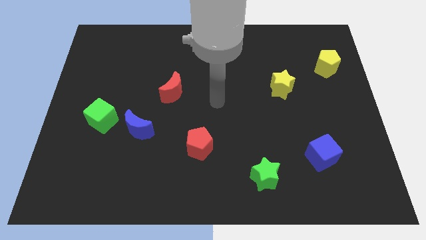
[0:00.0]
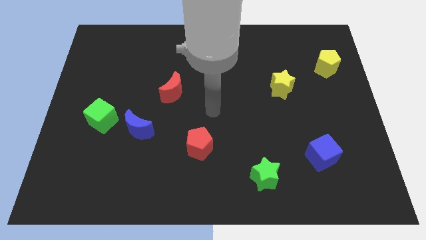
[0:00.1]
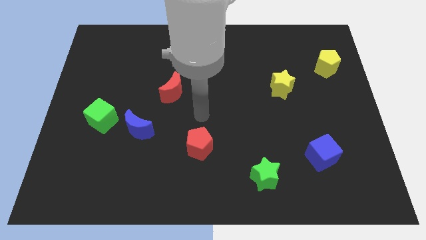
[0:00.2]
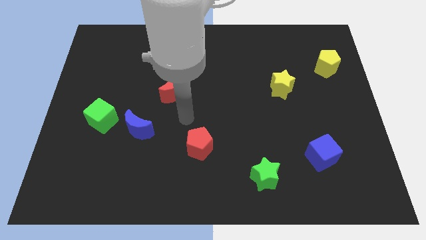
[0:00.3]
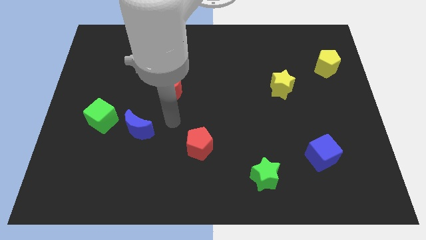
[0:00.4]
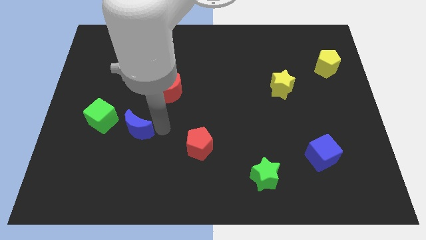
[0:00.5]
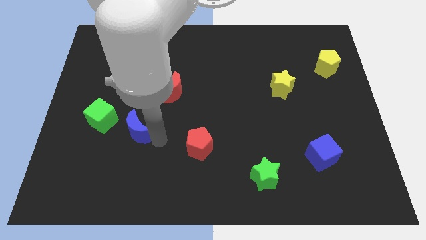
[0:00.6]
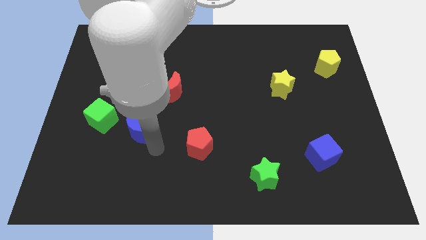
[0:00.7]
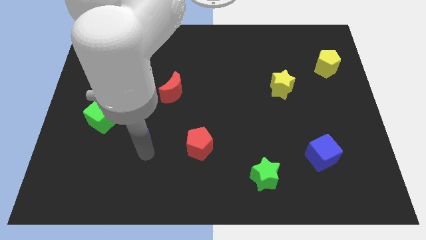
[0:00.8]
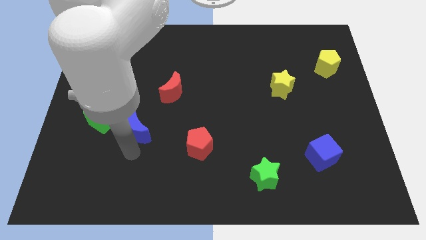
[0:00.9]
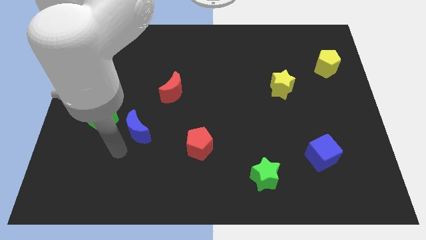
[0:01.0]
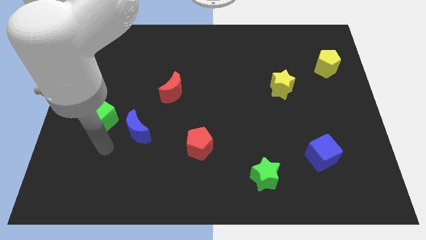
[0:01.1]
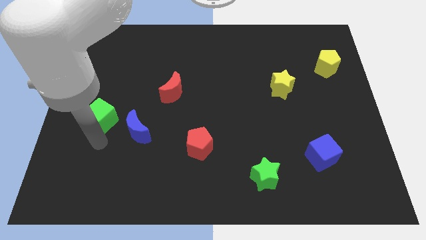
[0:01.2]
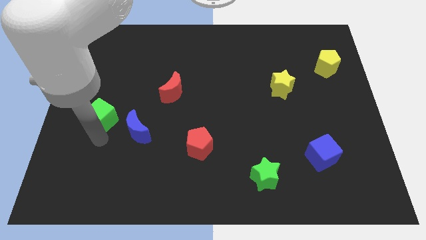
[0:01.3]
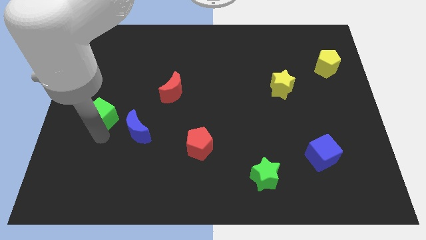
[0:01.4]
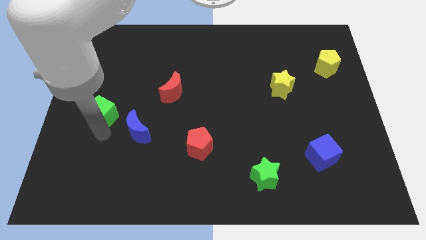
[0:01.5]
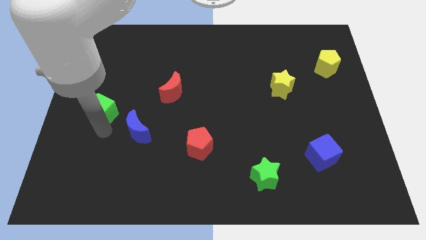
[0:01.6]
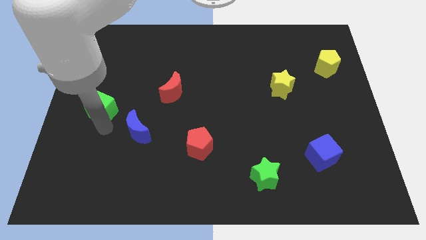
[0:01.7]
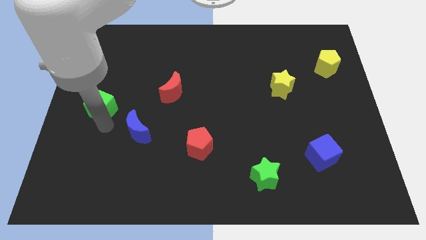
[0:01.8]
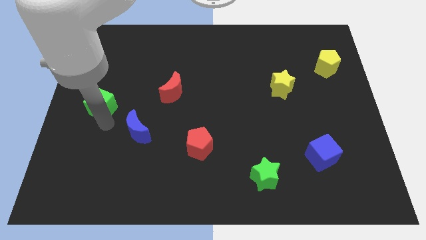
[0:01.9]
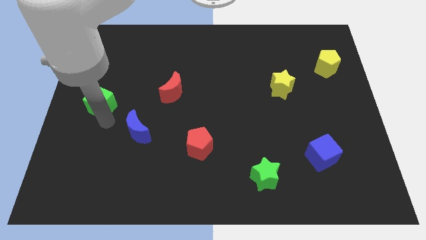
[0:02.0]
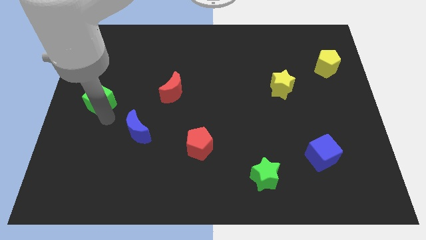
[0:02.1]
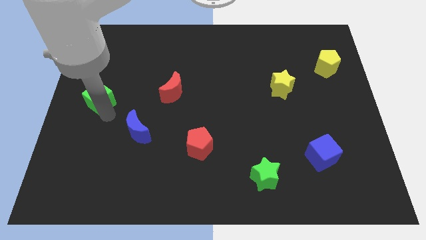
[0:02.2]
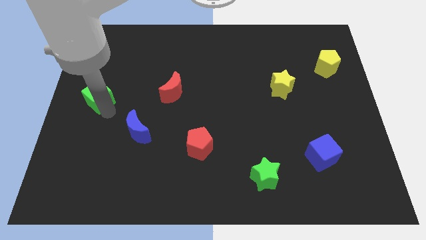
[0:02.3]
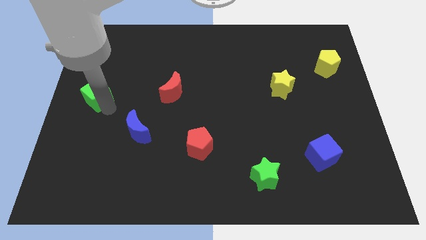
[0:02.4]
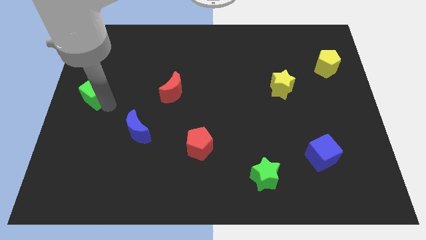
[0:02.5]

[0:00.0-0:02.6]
slightly slide the green cube upwards

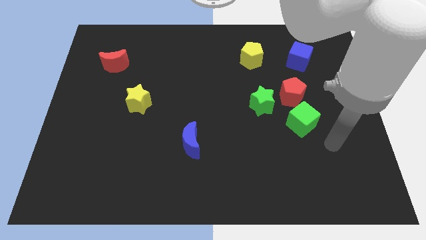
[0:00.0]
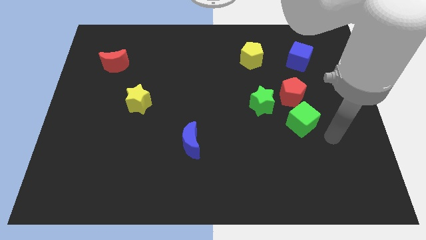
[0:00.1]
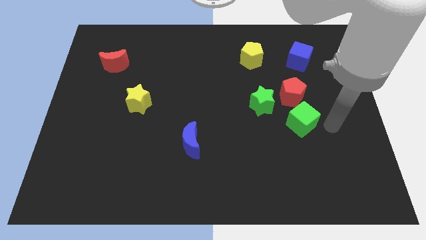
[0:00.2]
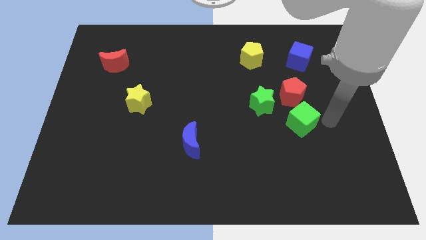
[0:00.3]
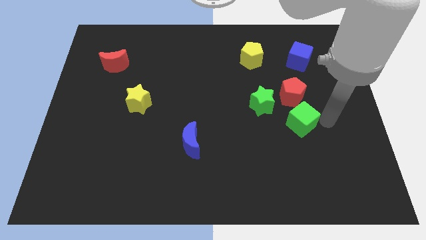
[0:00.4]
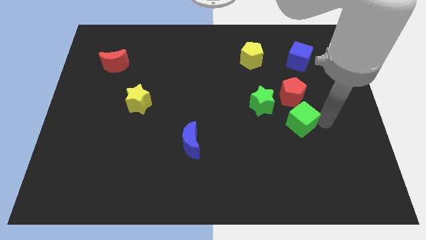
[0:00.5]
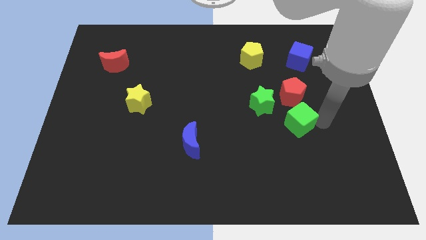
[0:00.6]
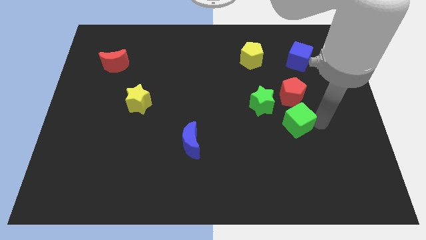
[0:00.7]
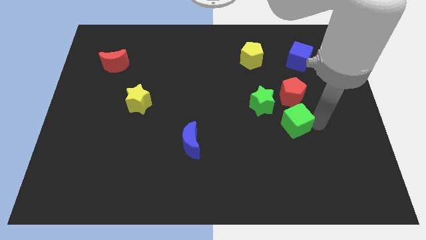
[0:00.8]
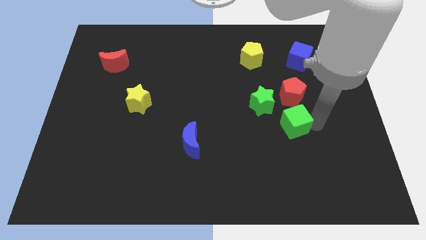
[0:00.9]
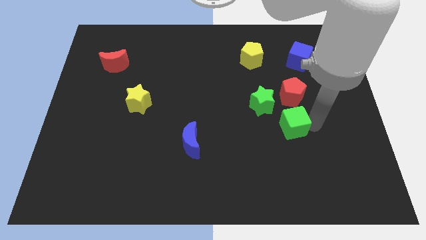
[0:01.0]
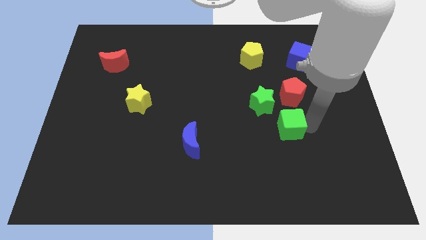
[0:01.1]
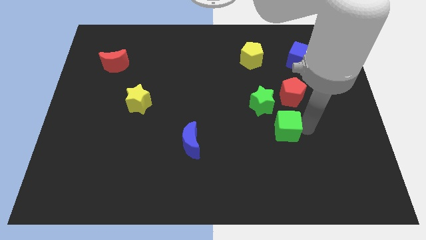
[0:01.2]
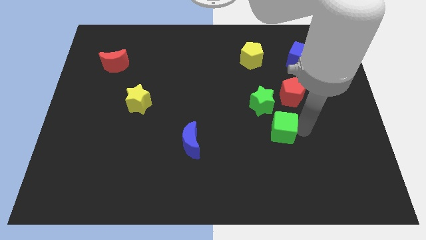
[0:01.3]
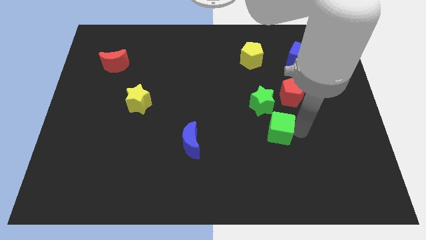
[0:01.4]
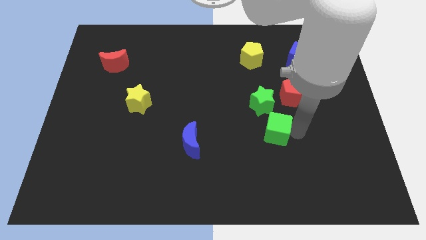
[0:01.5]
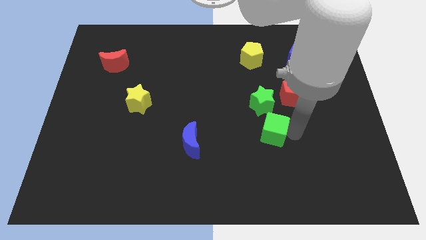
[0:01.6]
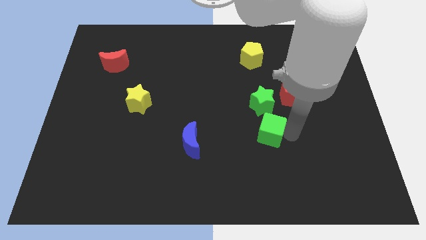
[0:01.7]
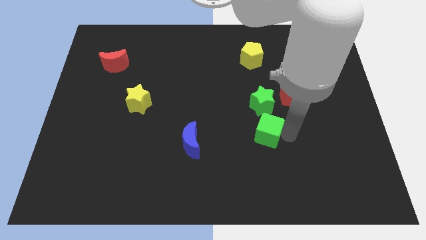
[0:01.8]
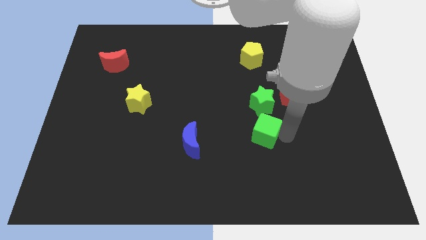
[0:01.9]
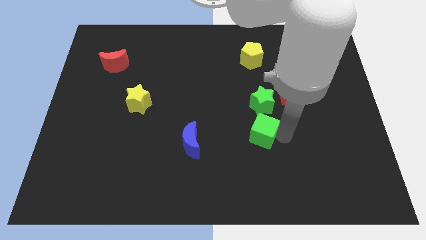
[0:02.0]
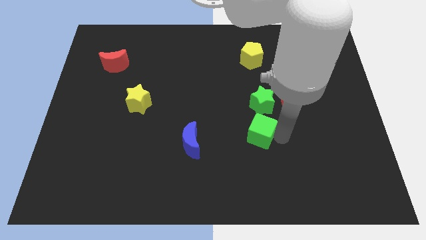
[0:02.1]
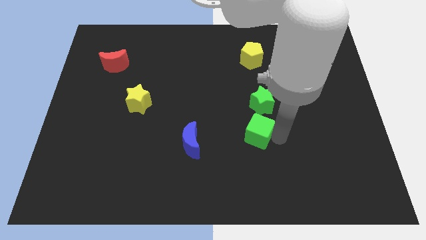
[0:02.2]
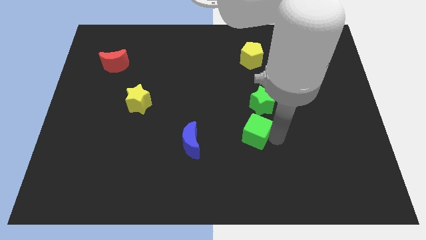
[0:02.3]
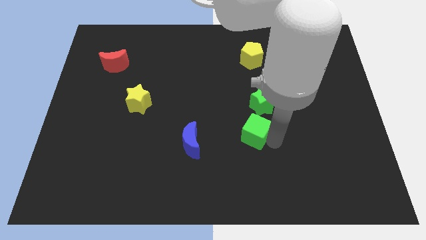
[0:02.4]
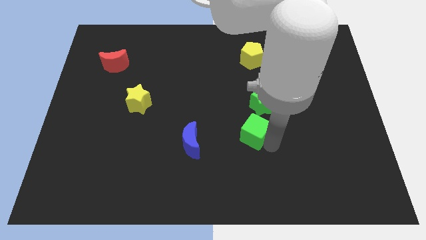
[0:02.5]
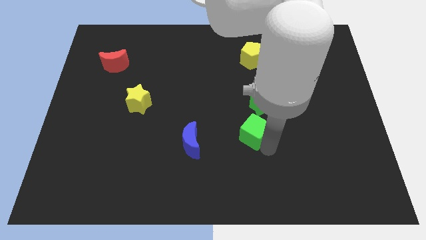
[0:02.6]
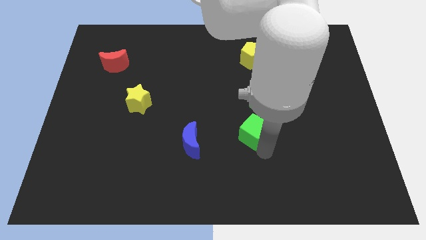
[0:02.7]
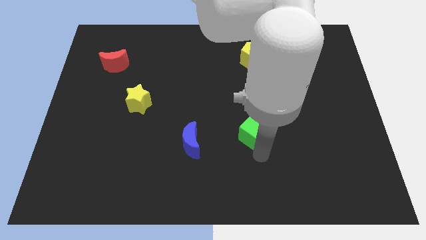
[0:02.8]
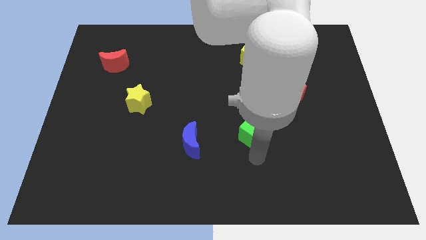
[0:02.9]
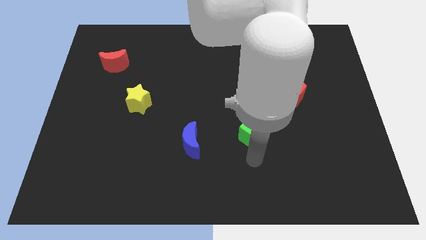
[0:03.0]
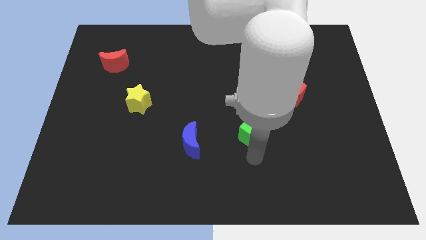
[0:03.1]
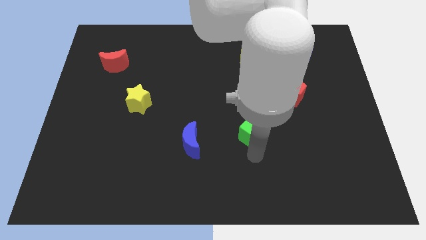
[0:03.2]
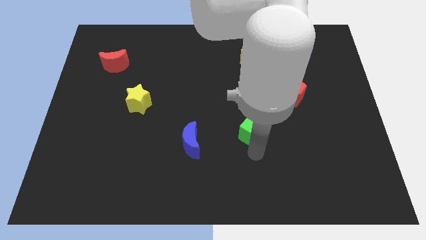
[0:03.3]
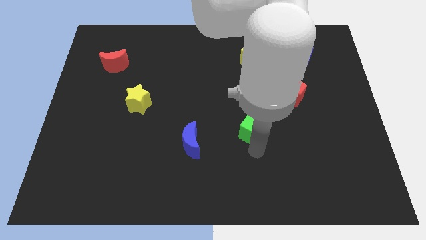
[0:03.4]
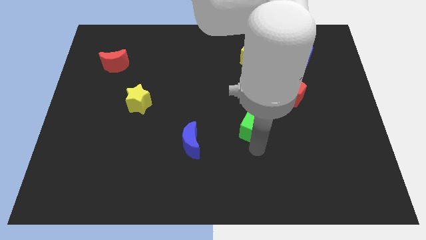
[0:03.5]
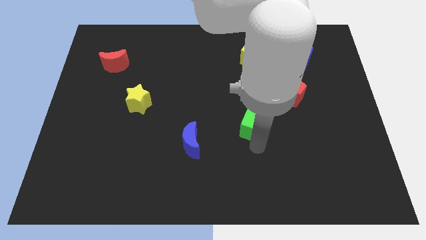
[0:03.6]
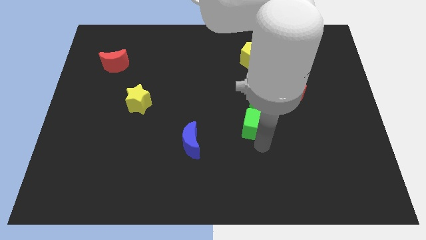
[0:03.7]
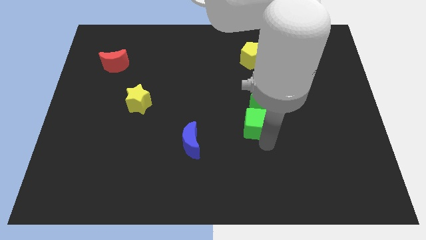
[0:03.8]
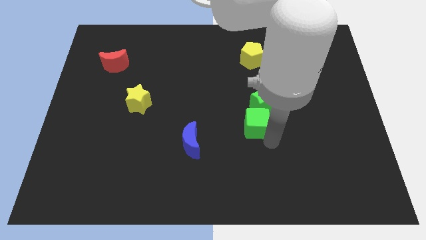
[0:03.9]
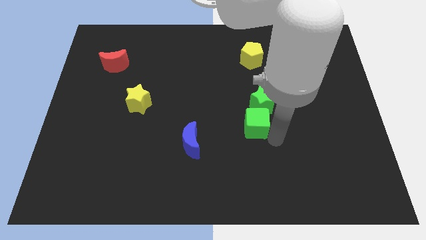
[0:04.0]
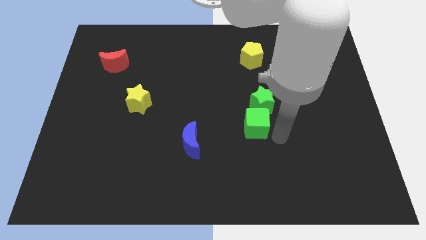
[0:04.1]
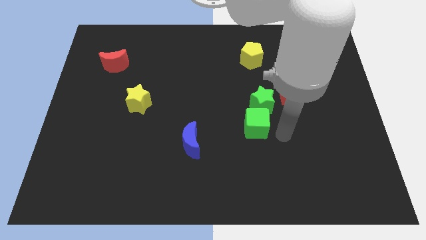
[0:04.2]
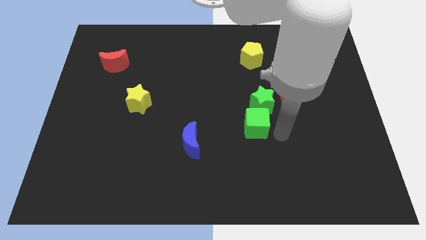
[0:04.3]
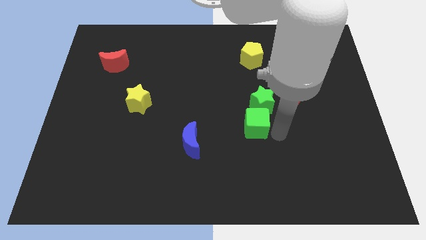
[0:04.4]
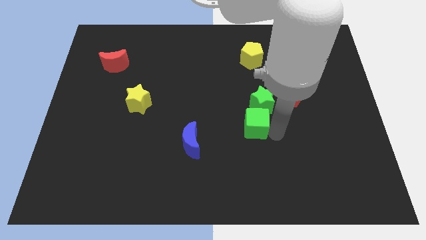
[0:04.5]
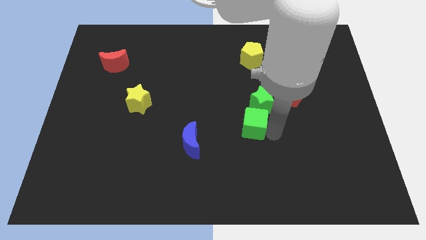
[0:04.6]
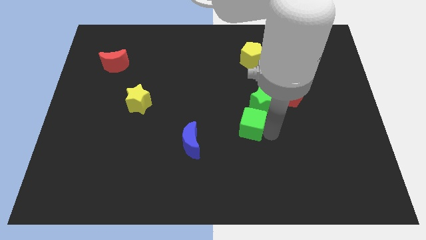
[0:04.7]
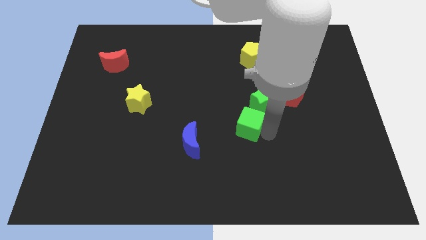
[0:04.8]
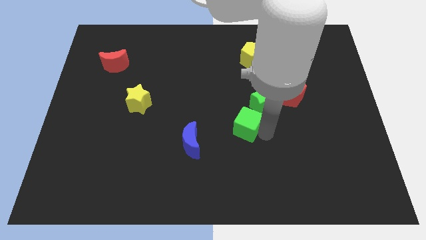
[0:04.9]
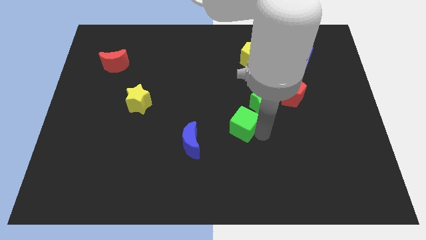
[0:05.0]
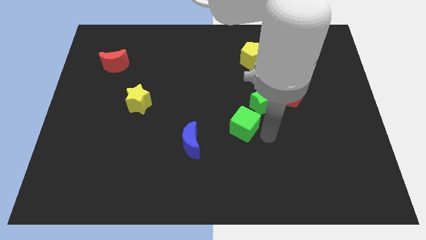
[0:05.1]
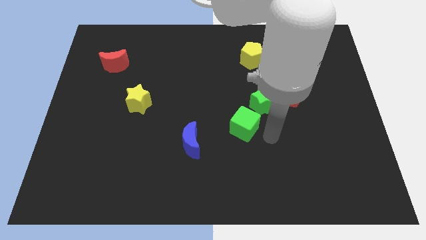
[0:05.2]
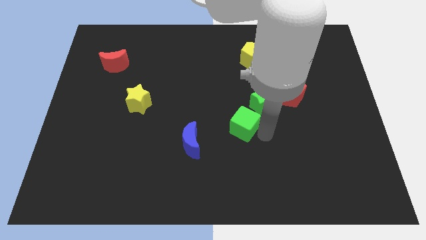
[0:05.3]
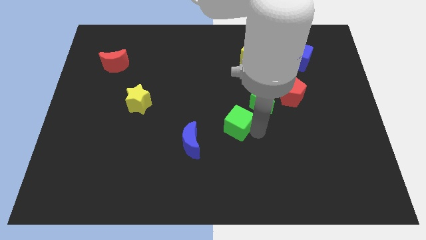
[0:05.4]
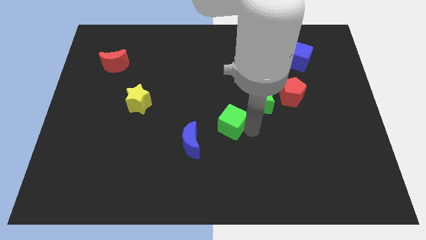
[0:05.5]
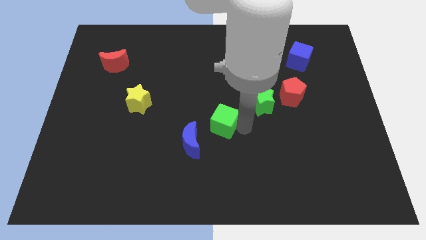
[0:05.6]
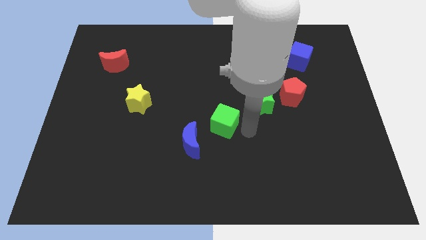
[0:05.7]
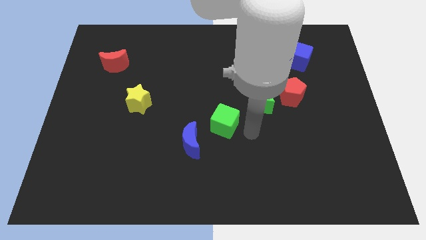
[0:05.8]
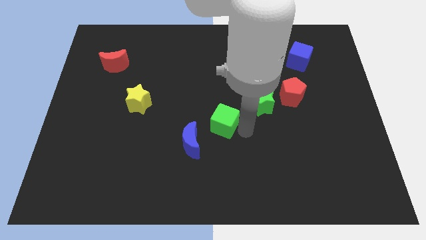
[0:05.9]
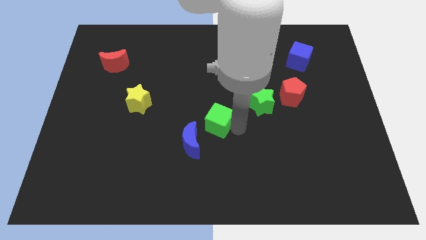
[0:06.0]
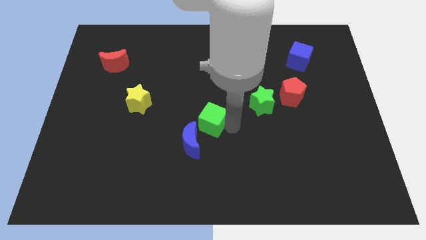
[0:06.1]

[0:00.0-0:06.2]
push the green cube to the left
